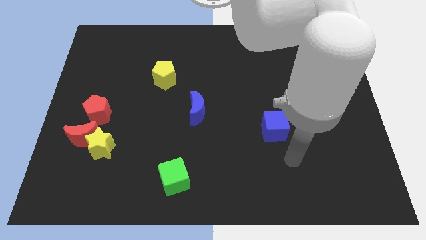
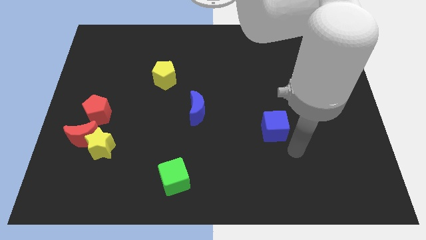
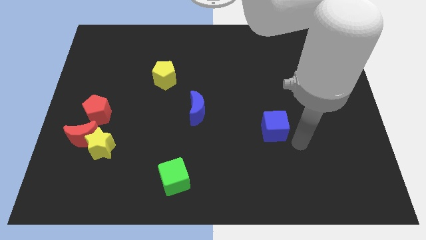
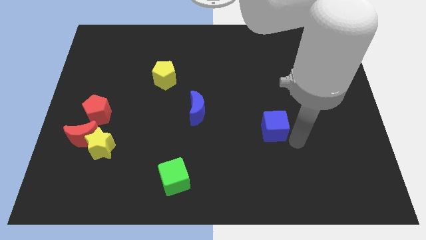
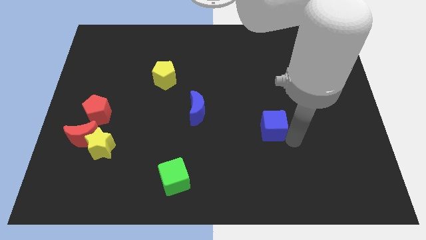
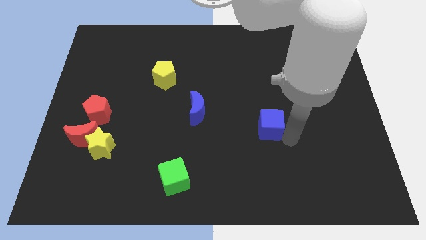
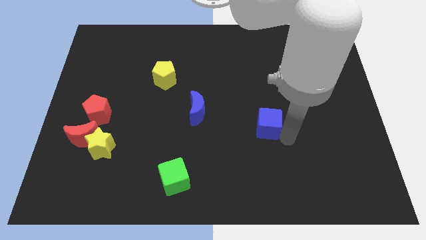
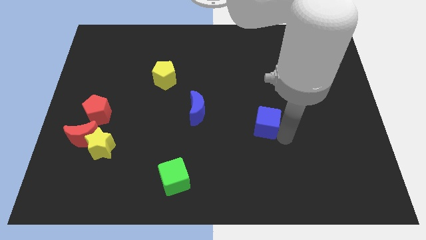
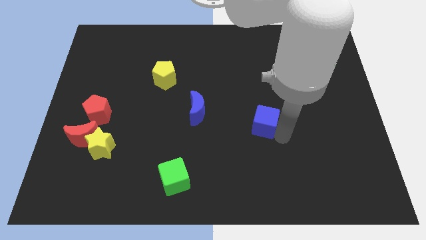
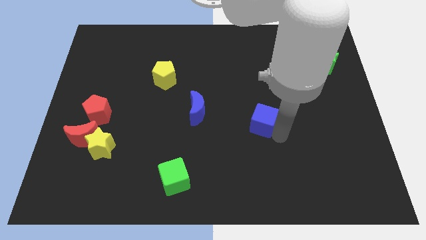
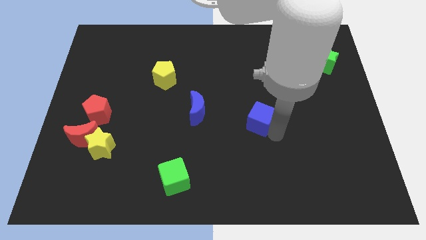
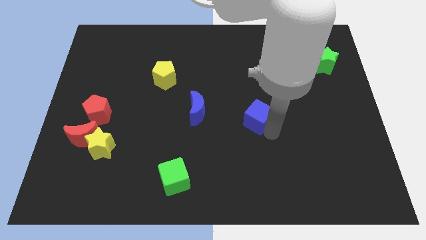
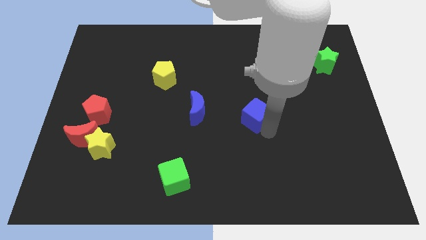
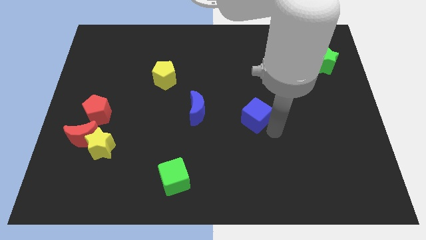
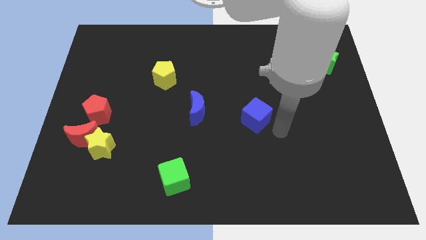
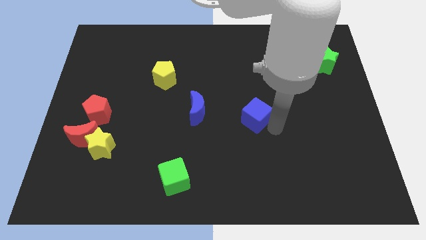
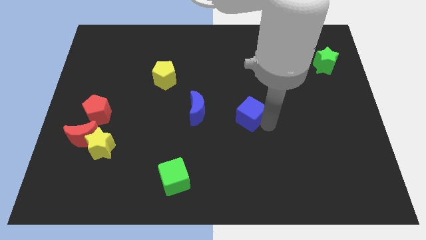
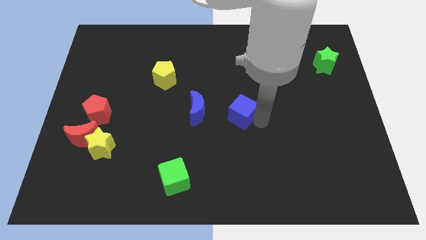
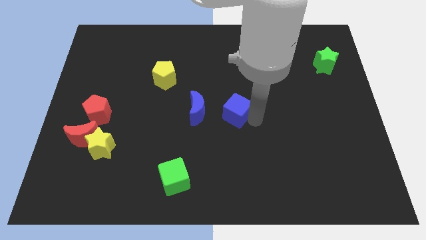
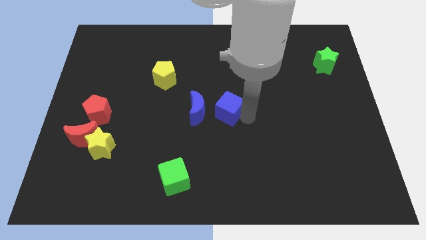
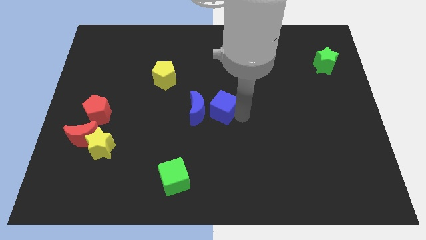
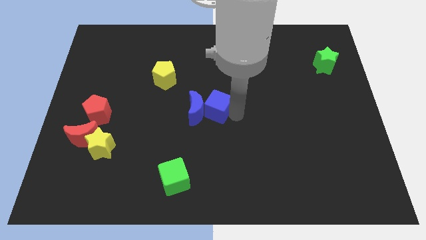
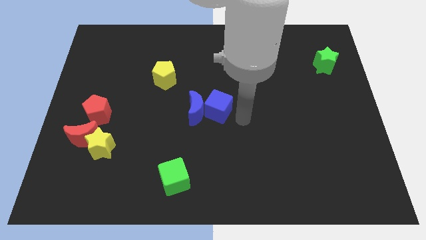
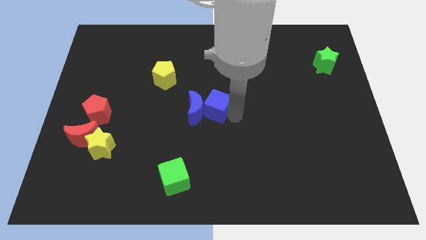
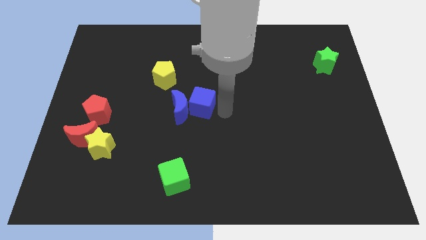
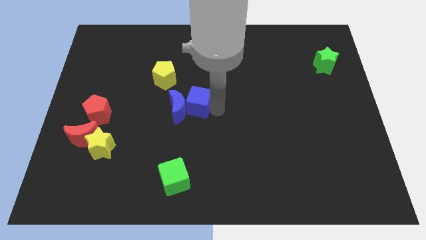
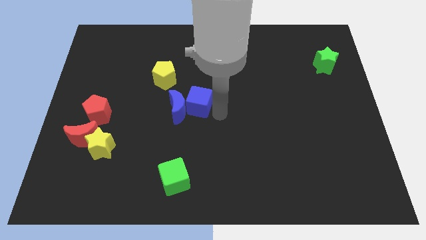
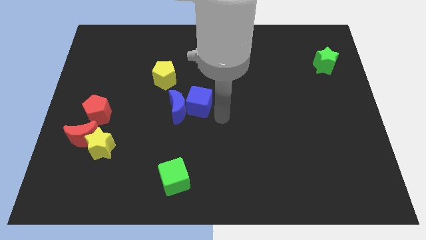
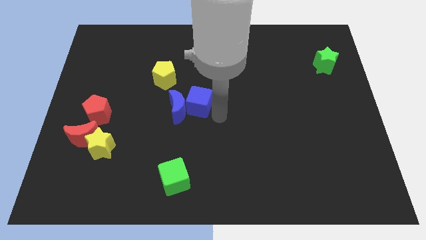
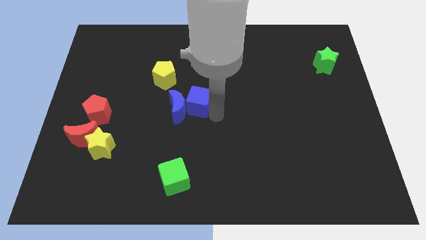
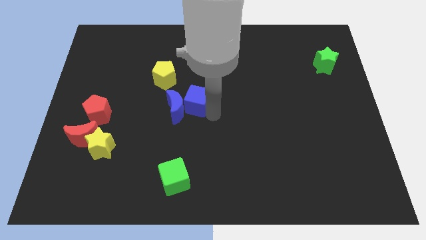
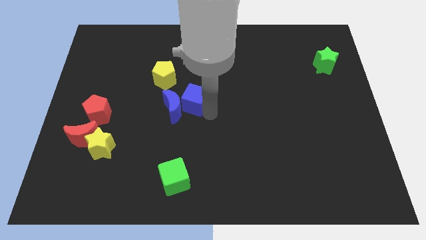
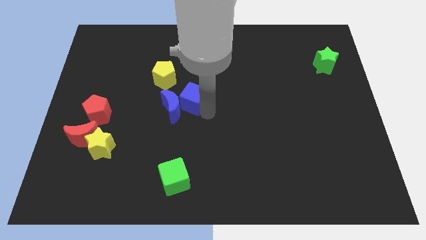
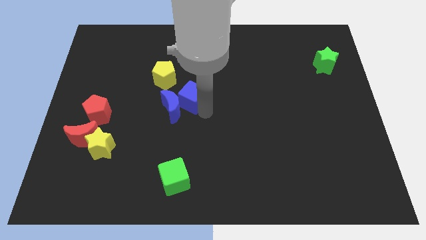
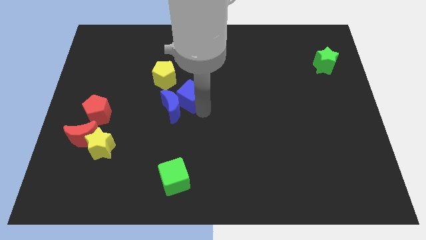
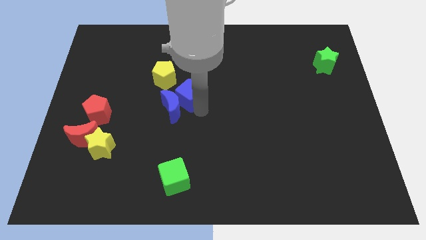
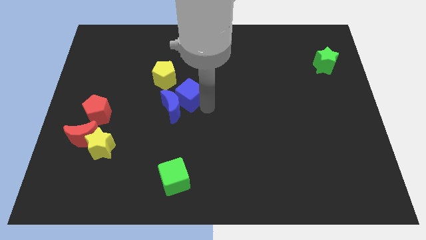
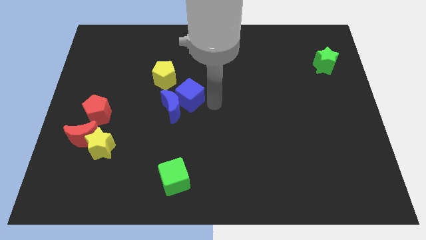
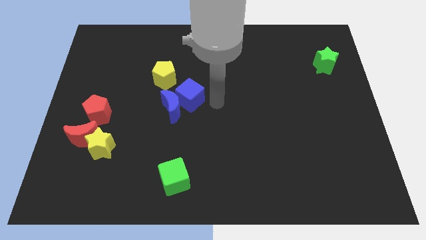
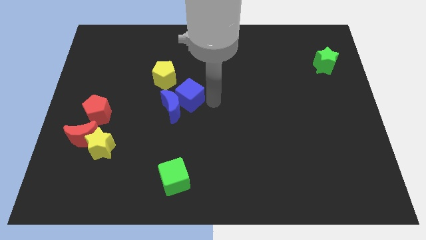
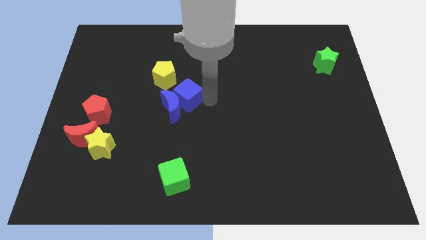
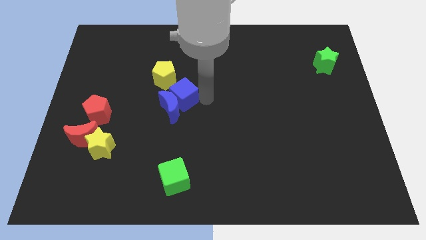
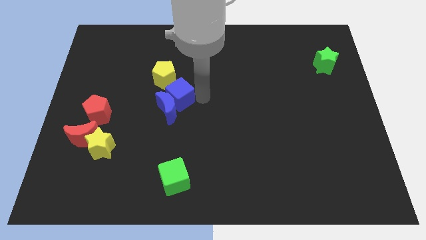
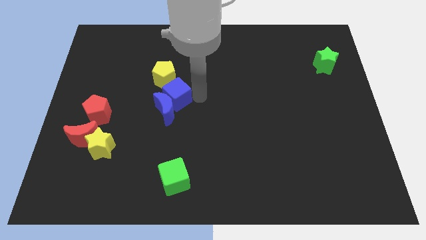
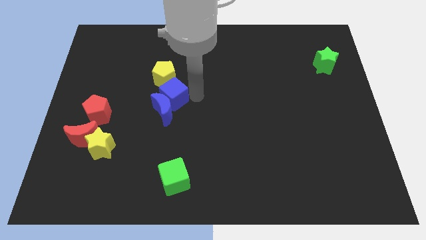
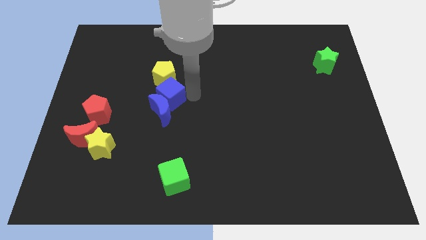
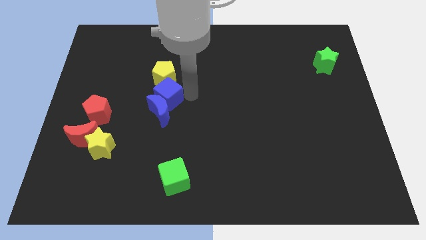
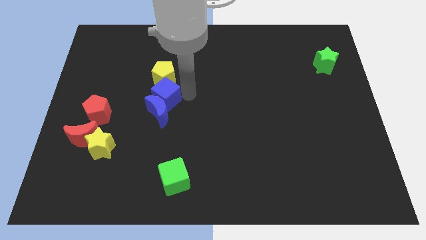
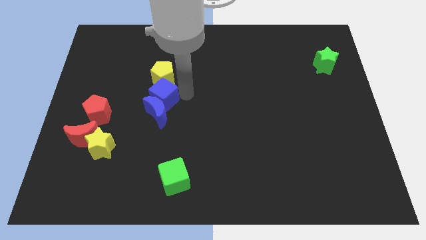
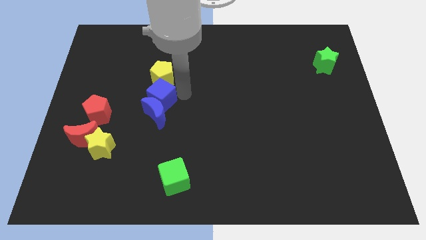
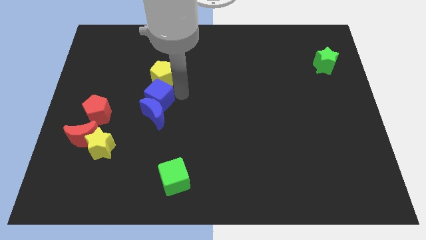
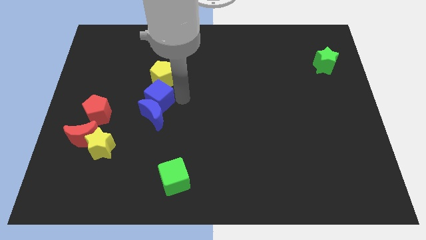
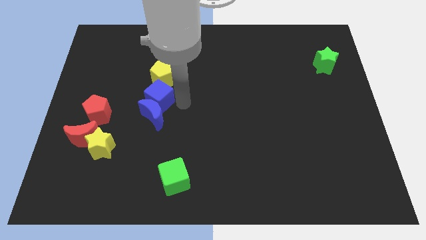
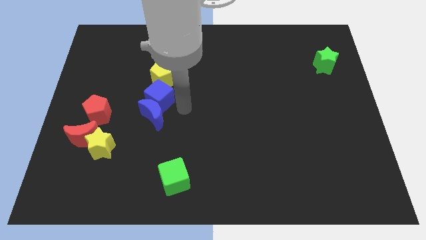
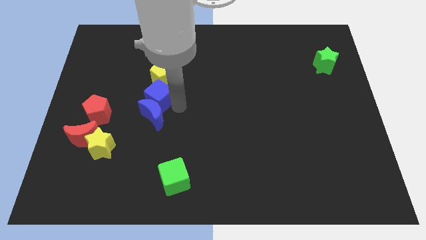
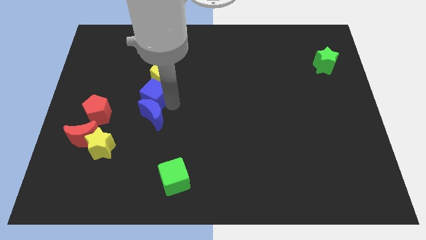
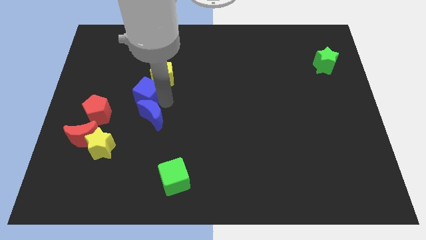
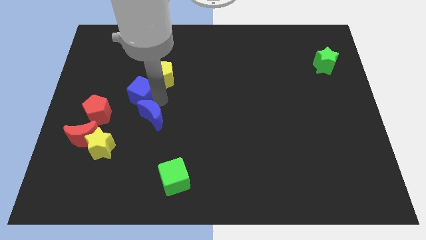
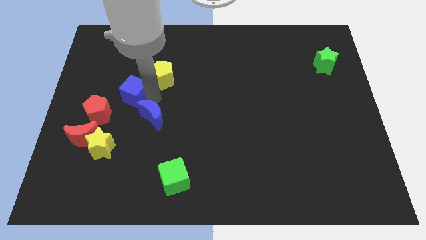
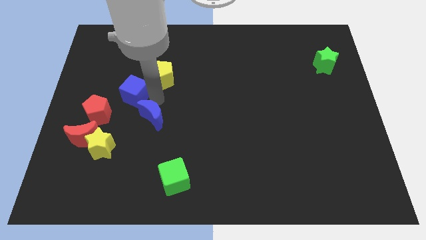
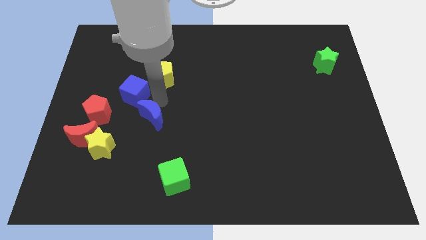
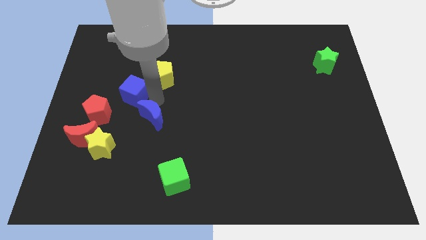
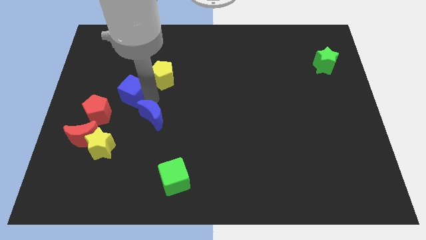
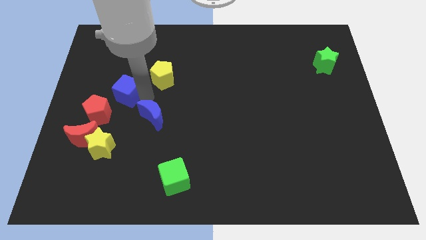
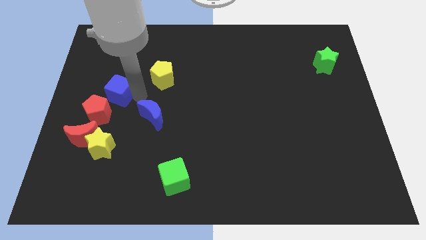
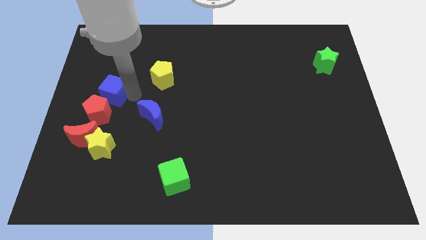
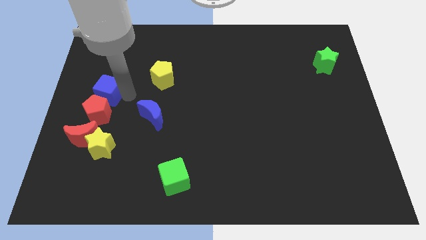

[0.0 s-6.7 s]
slide the blue cube to the center left
